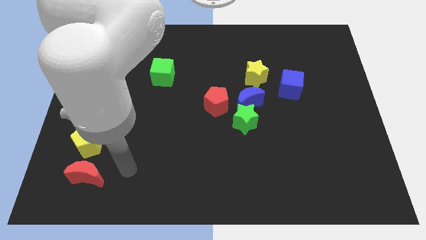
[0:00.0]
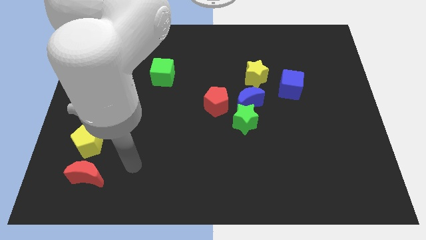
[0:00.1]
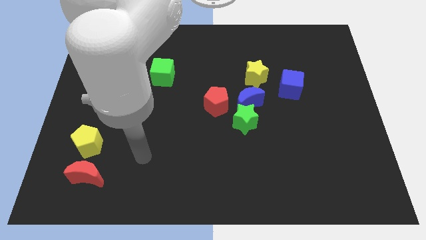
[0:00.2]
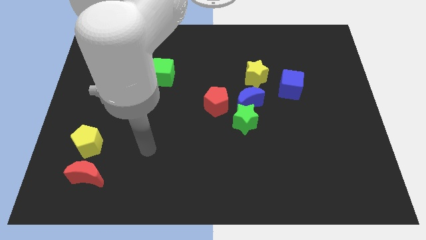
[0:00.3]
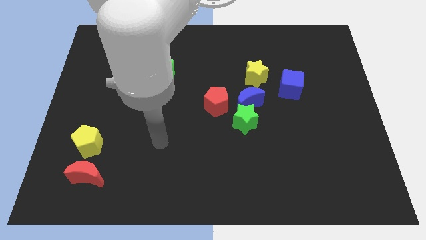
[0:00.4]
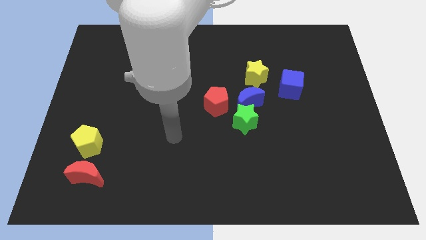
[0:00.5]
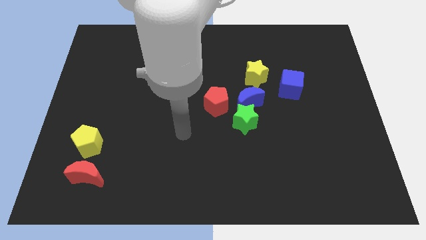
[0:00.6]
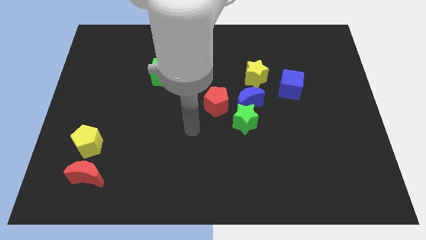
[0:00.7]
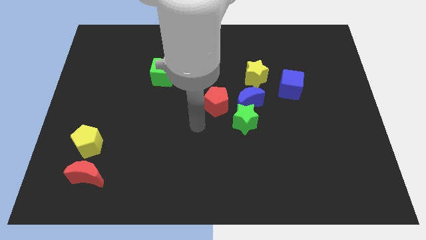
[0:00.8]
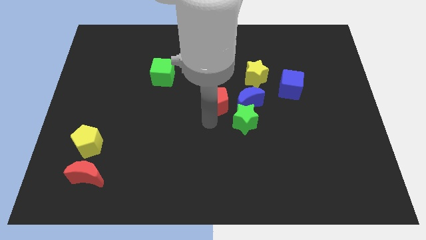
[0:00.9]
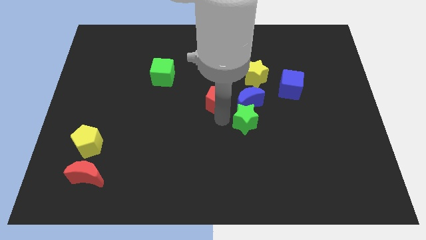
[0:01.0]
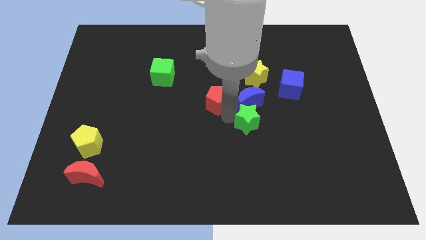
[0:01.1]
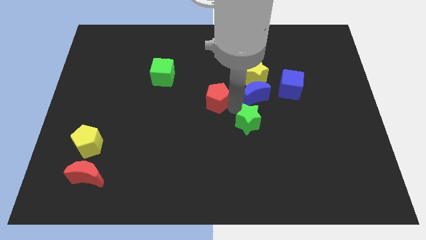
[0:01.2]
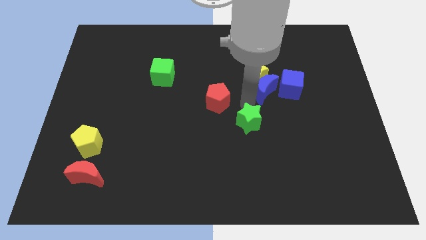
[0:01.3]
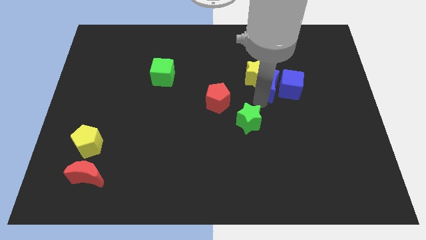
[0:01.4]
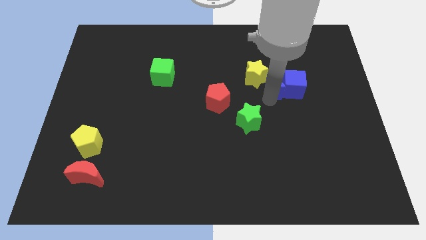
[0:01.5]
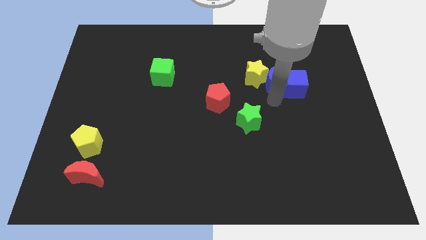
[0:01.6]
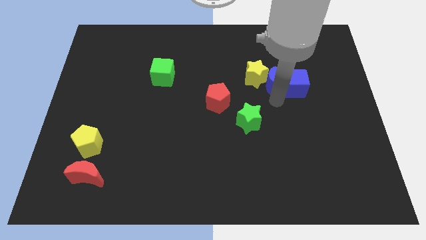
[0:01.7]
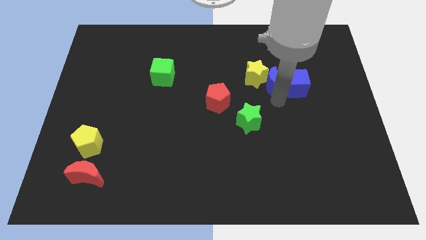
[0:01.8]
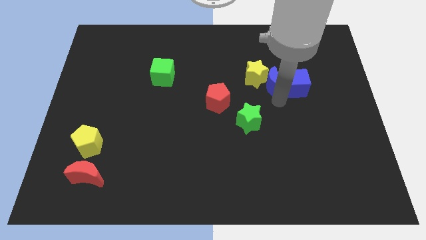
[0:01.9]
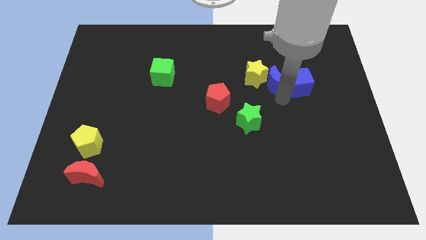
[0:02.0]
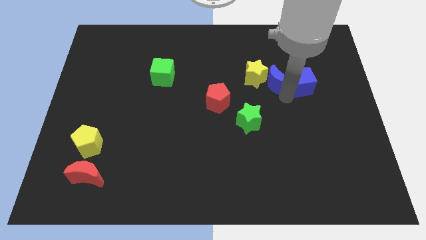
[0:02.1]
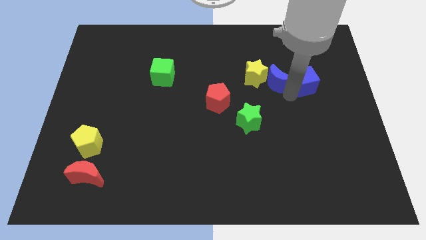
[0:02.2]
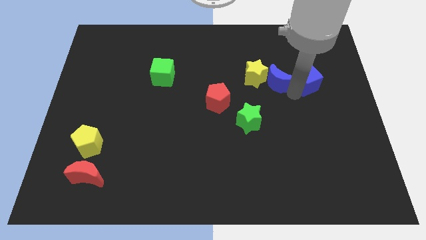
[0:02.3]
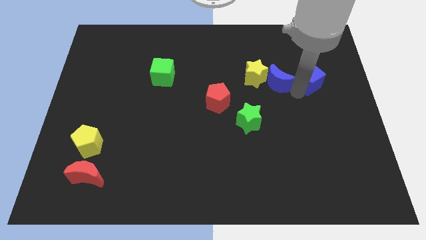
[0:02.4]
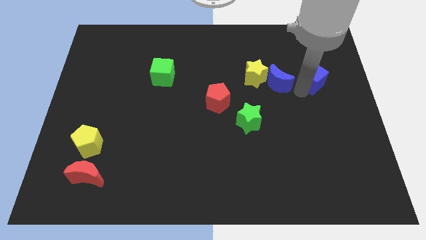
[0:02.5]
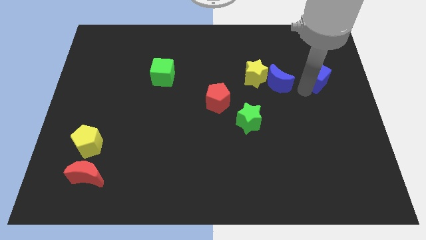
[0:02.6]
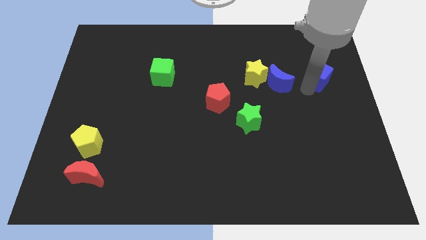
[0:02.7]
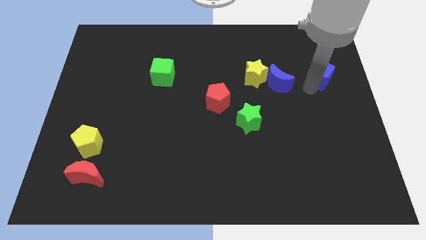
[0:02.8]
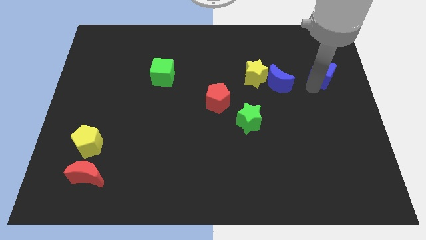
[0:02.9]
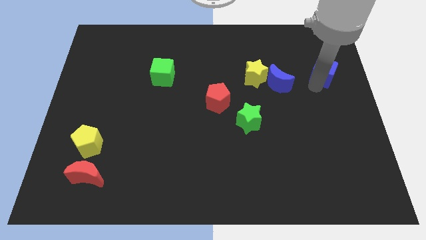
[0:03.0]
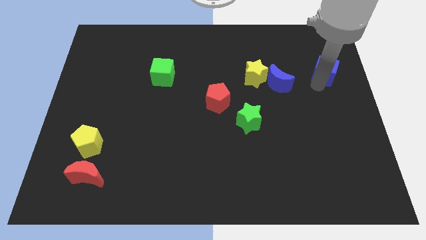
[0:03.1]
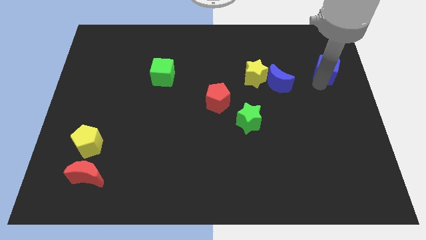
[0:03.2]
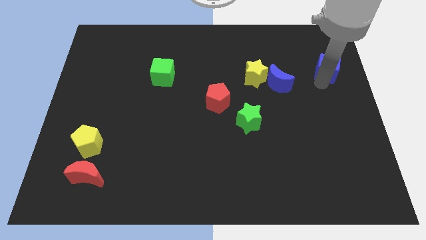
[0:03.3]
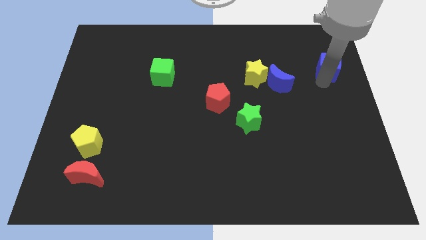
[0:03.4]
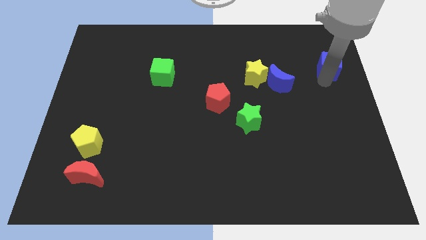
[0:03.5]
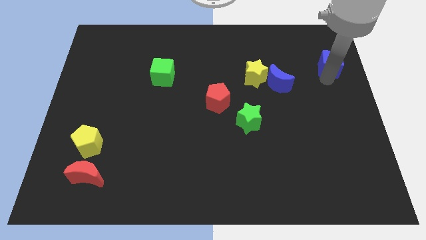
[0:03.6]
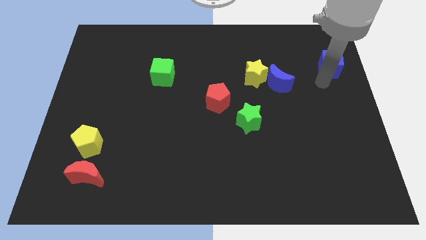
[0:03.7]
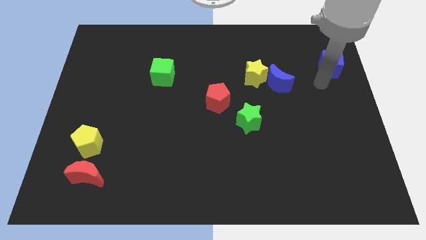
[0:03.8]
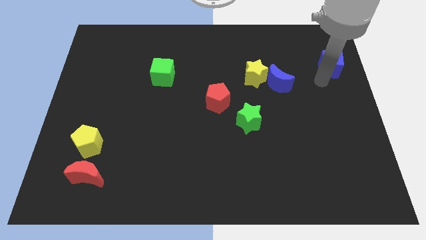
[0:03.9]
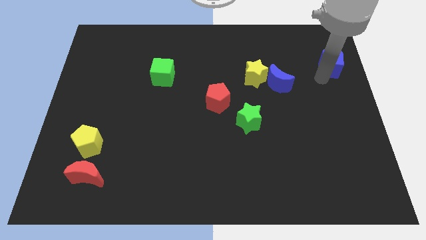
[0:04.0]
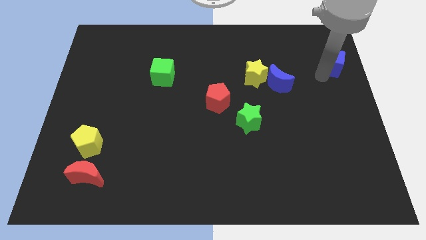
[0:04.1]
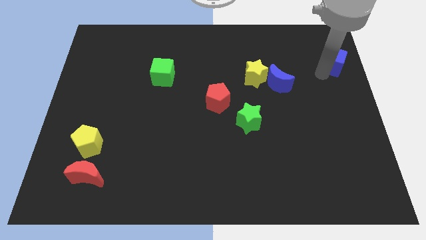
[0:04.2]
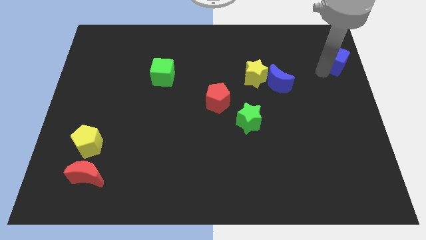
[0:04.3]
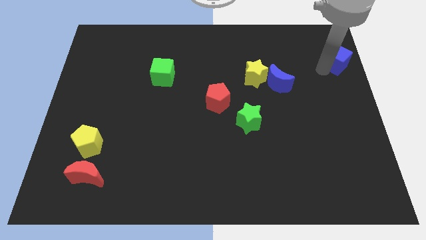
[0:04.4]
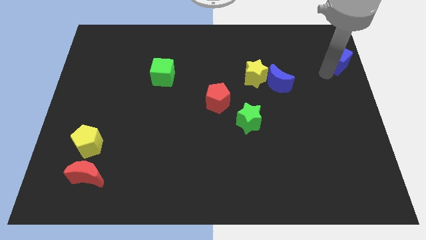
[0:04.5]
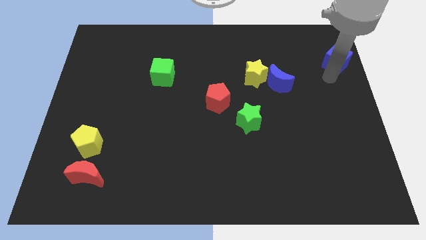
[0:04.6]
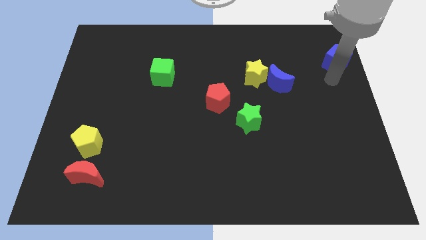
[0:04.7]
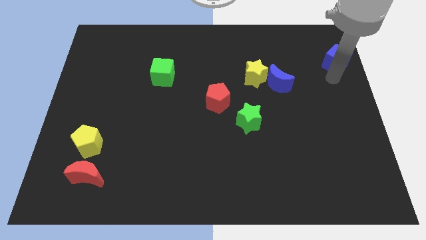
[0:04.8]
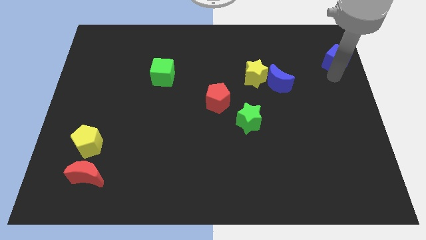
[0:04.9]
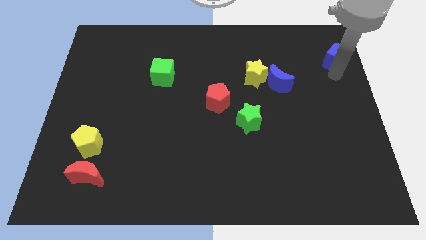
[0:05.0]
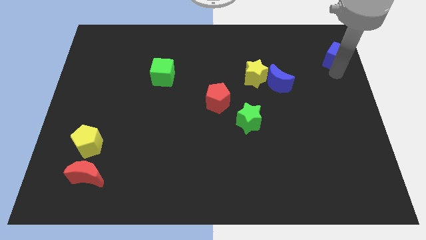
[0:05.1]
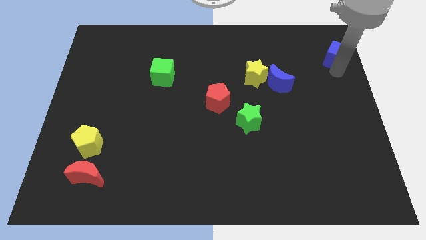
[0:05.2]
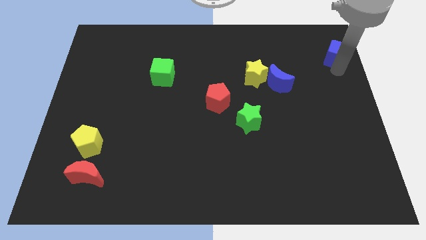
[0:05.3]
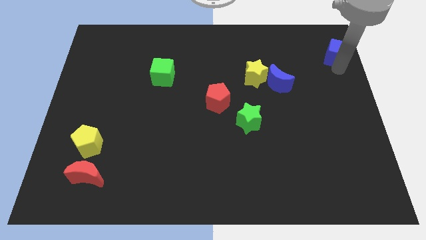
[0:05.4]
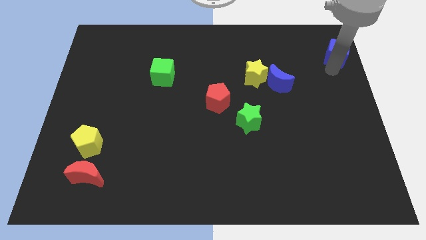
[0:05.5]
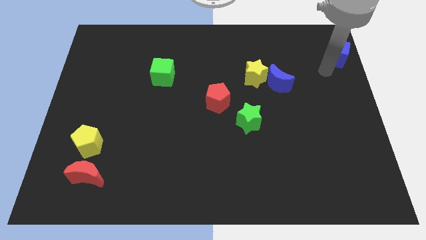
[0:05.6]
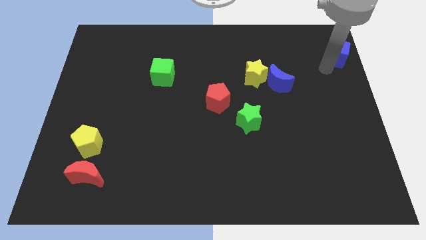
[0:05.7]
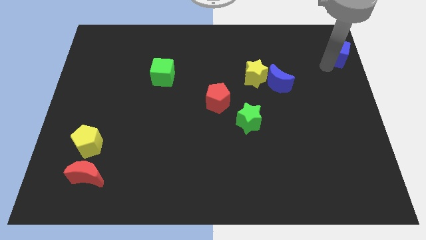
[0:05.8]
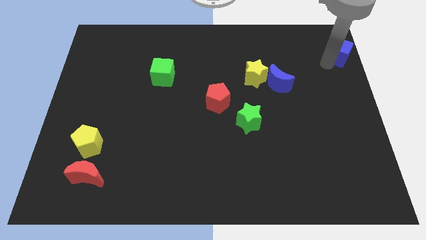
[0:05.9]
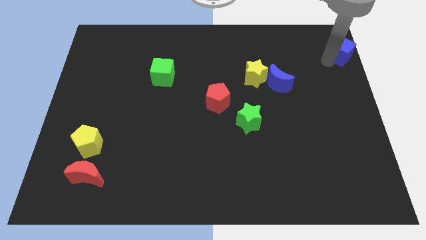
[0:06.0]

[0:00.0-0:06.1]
put the blue cube to the top right of the board

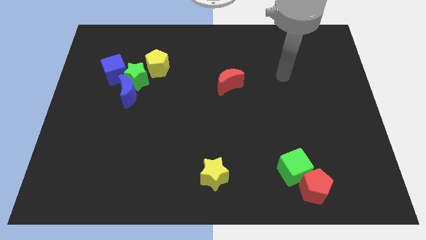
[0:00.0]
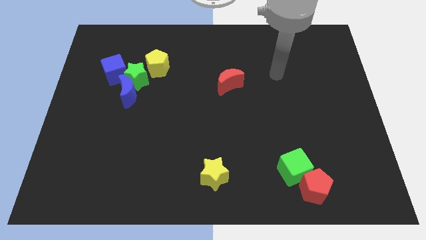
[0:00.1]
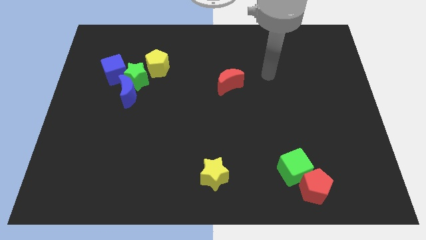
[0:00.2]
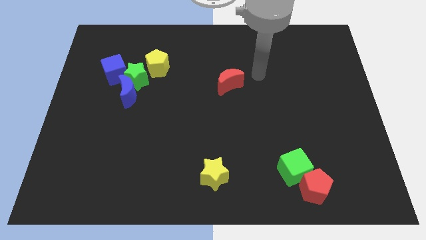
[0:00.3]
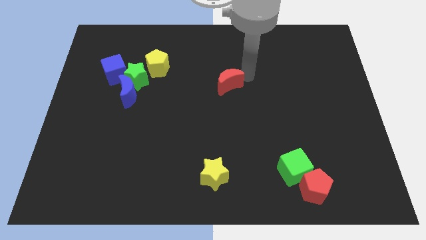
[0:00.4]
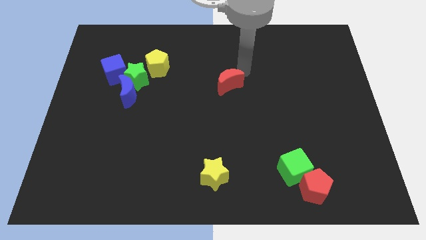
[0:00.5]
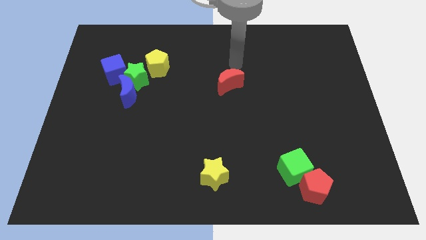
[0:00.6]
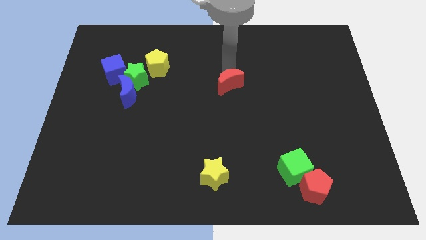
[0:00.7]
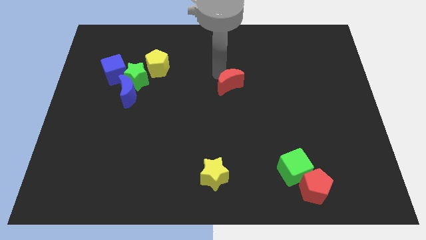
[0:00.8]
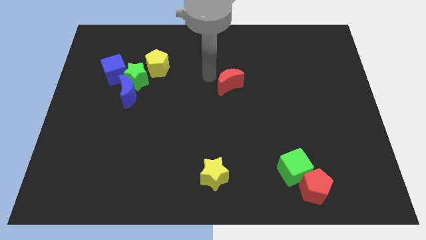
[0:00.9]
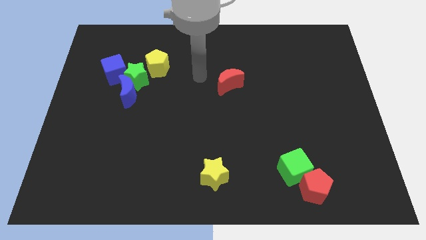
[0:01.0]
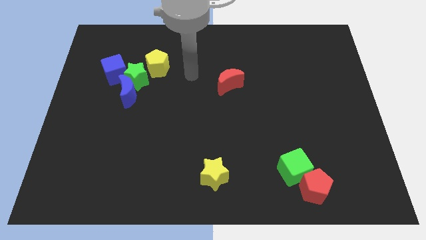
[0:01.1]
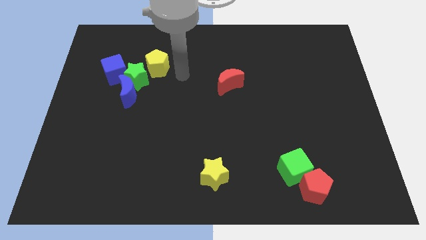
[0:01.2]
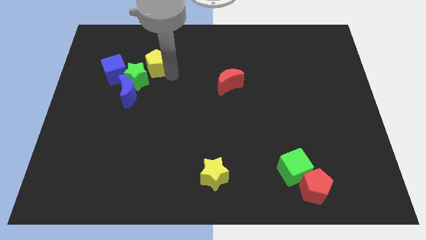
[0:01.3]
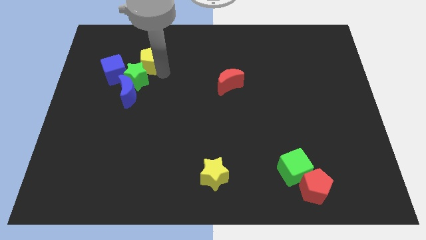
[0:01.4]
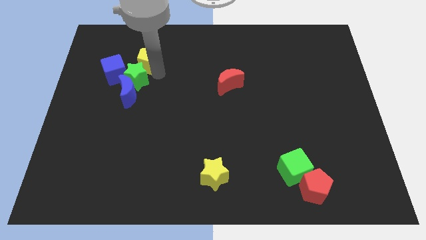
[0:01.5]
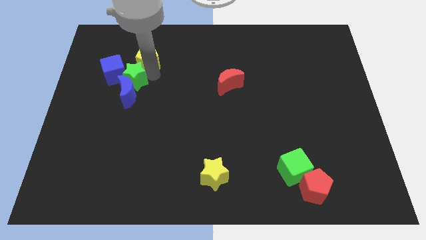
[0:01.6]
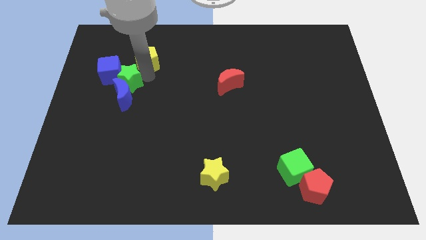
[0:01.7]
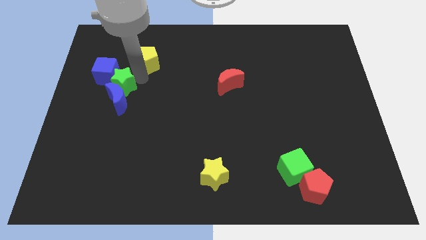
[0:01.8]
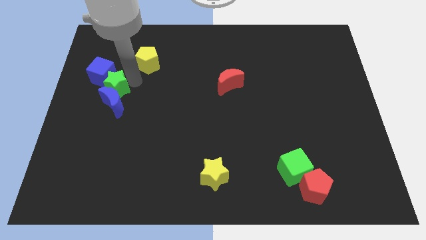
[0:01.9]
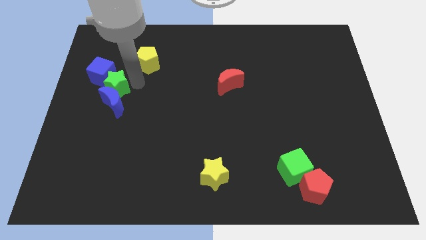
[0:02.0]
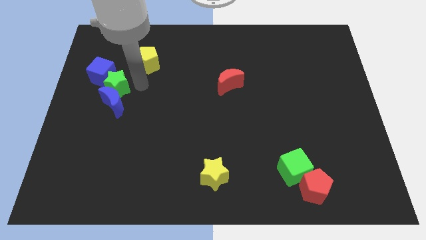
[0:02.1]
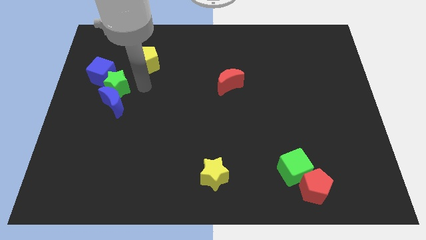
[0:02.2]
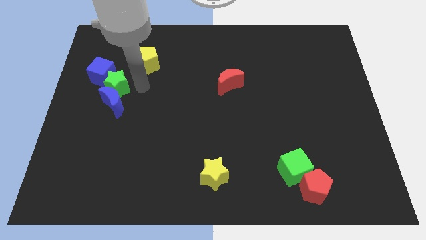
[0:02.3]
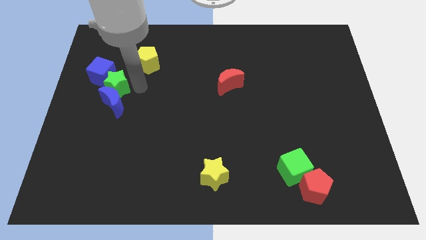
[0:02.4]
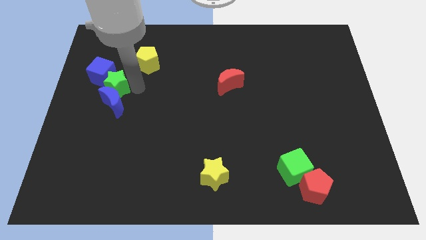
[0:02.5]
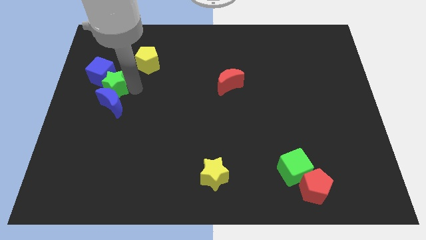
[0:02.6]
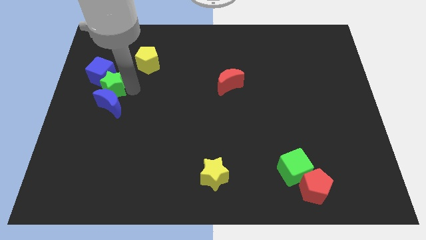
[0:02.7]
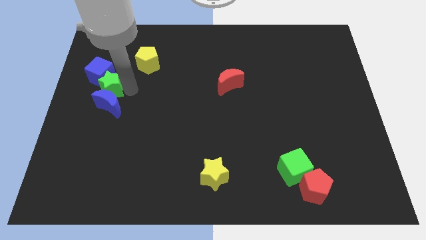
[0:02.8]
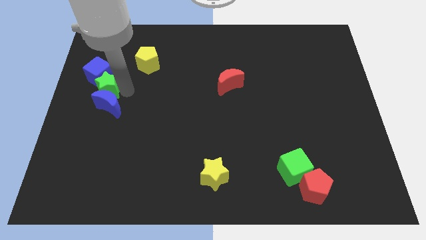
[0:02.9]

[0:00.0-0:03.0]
push the green star to the center left
